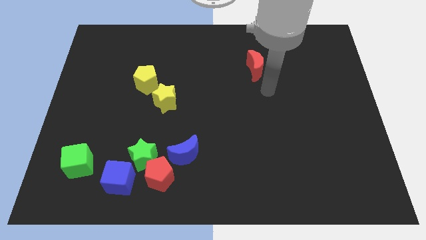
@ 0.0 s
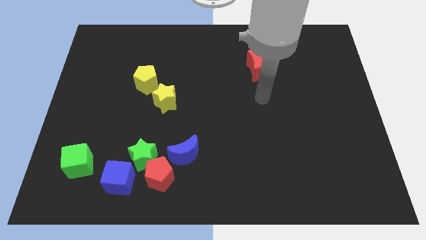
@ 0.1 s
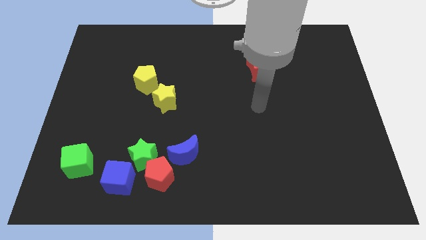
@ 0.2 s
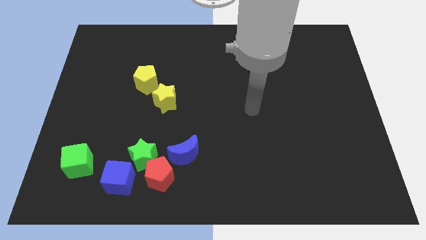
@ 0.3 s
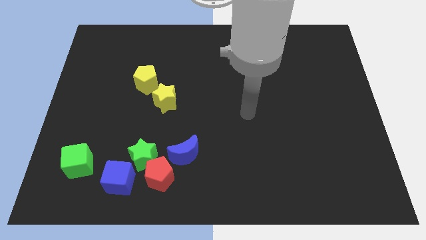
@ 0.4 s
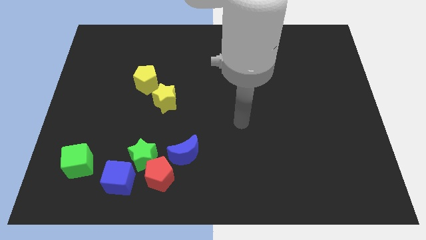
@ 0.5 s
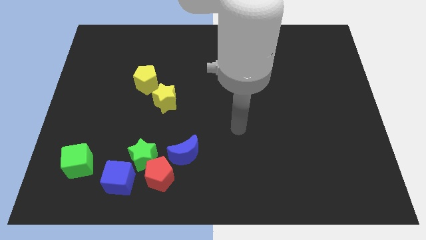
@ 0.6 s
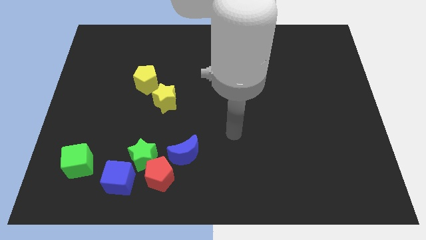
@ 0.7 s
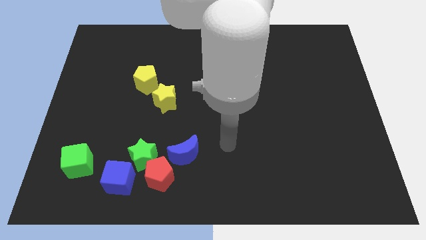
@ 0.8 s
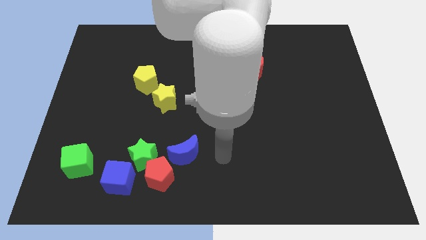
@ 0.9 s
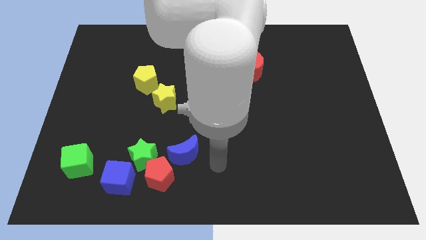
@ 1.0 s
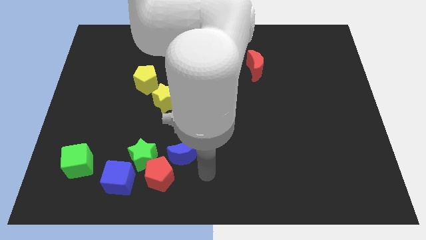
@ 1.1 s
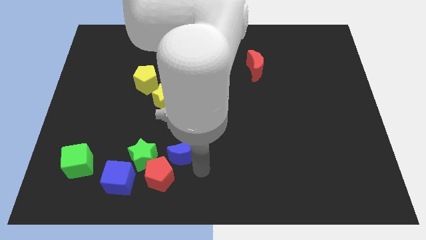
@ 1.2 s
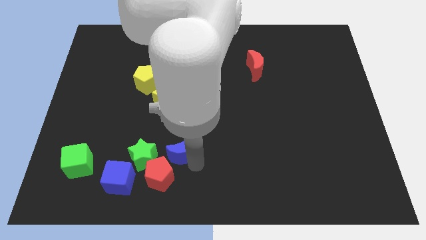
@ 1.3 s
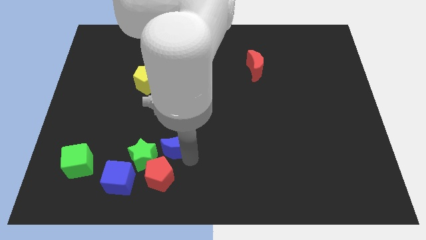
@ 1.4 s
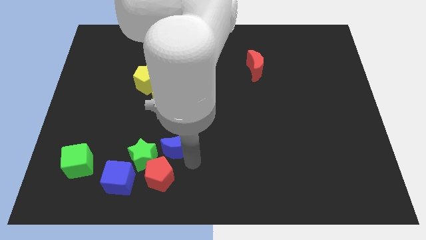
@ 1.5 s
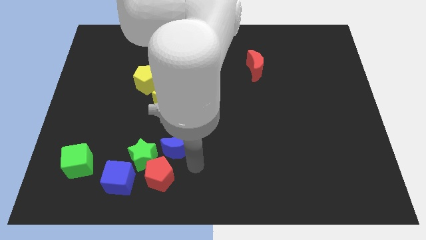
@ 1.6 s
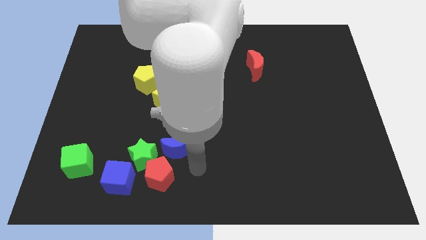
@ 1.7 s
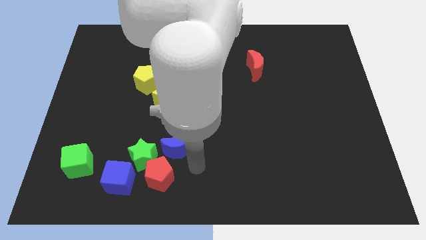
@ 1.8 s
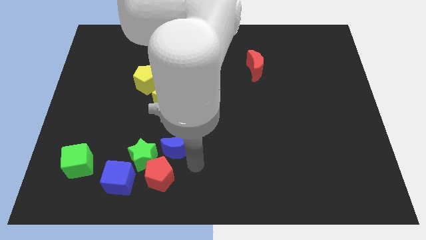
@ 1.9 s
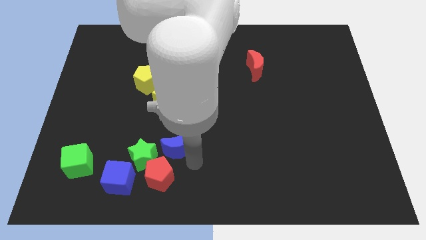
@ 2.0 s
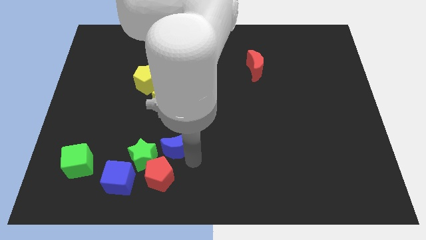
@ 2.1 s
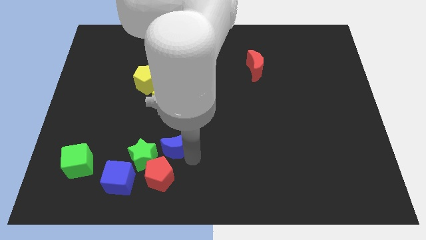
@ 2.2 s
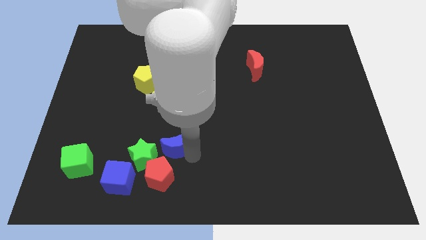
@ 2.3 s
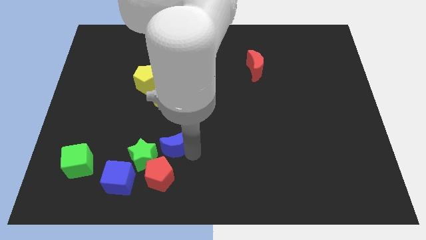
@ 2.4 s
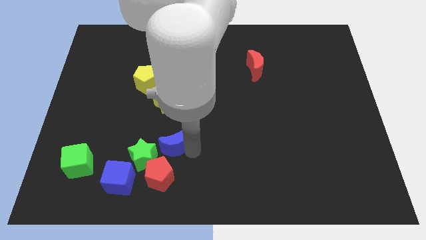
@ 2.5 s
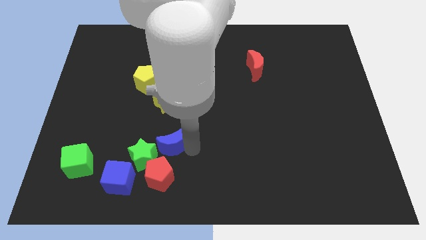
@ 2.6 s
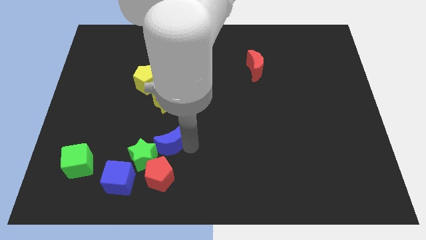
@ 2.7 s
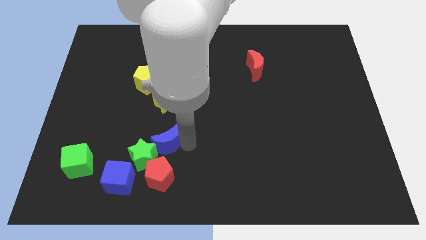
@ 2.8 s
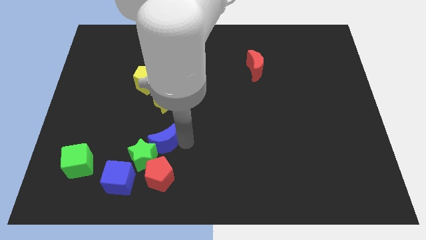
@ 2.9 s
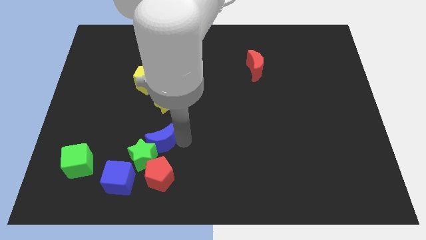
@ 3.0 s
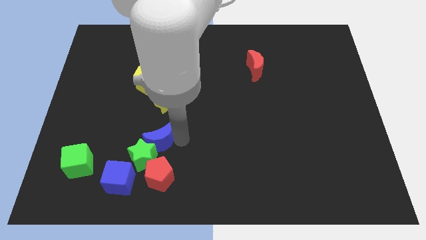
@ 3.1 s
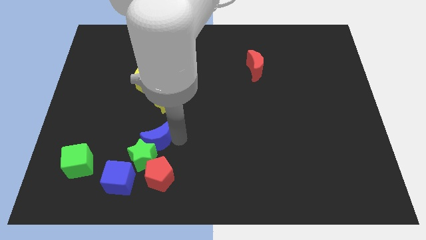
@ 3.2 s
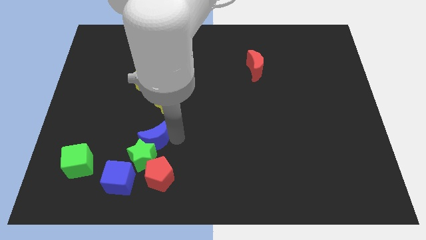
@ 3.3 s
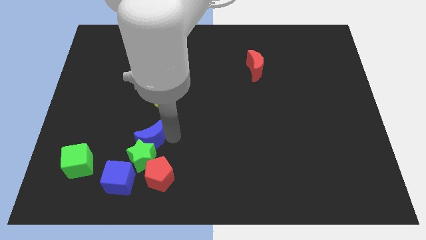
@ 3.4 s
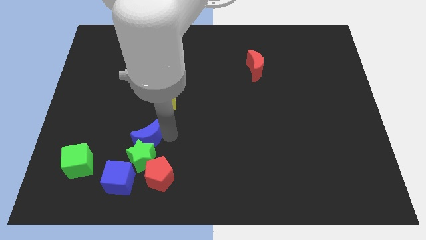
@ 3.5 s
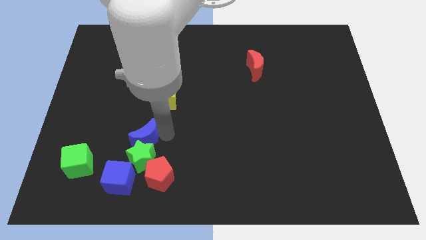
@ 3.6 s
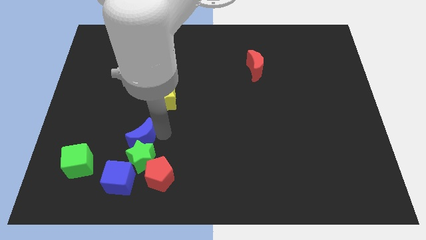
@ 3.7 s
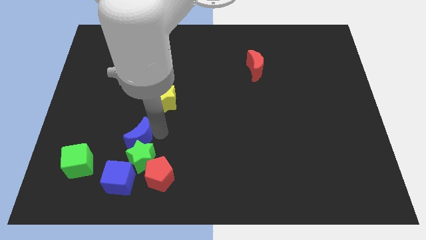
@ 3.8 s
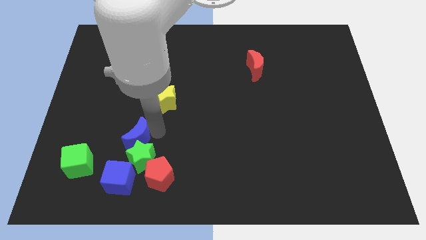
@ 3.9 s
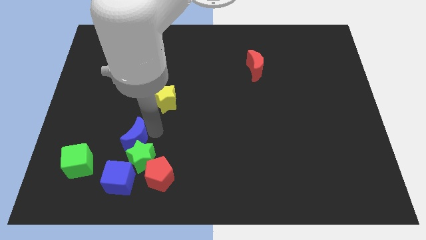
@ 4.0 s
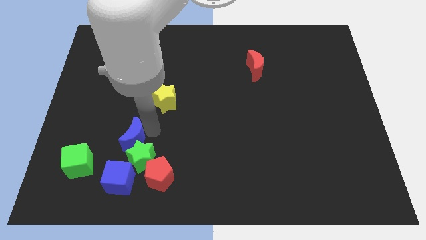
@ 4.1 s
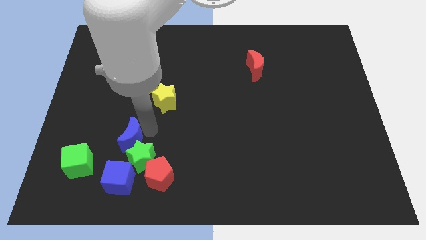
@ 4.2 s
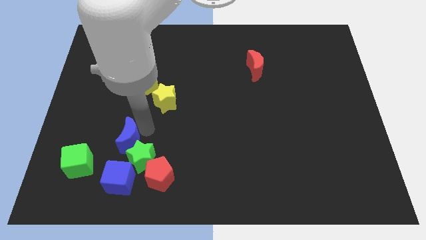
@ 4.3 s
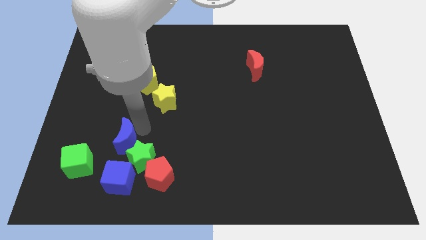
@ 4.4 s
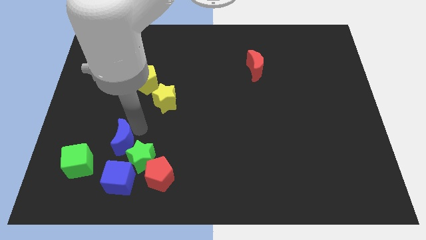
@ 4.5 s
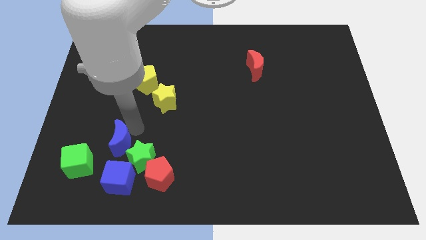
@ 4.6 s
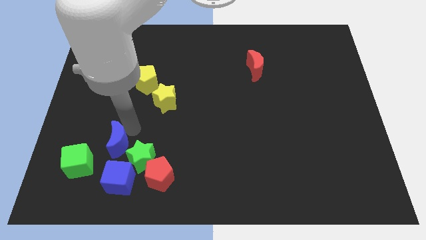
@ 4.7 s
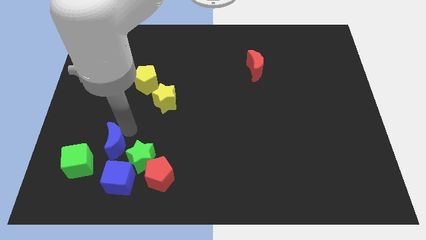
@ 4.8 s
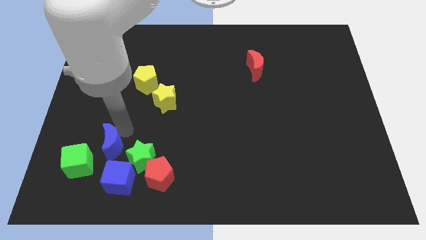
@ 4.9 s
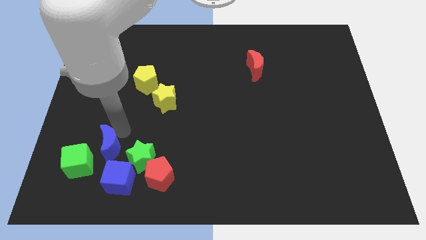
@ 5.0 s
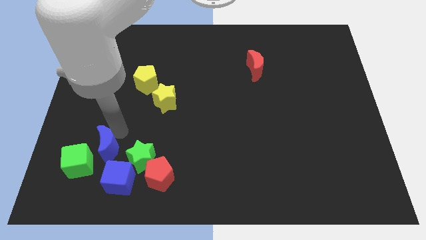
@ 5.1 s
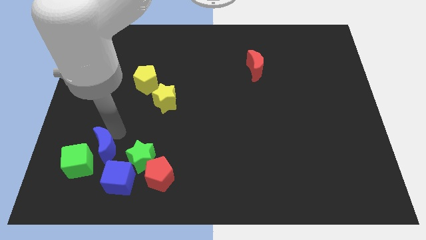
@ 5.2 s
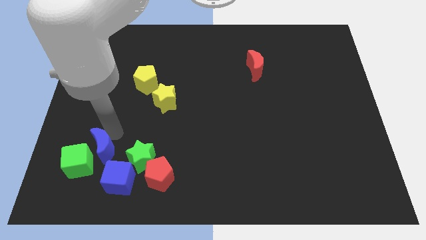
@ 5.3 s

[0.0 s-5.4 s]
slide the blue moon to the green cube

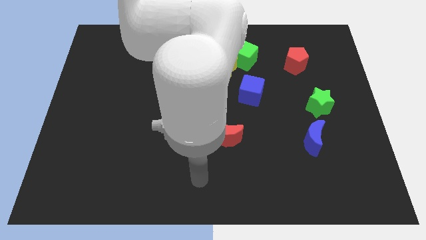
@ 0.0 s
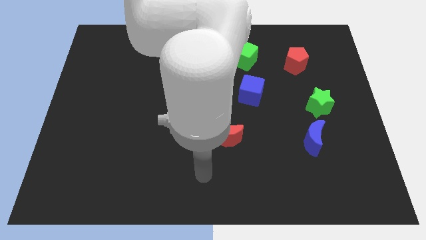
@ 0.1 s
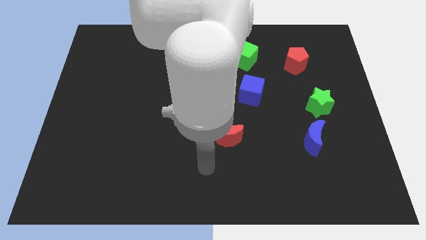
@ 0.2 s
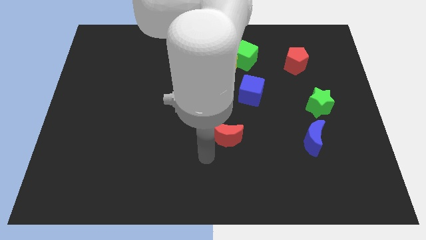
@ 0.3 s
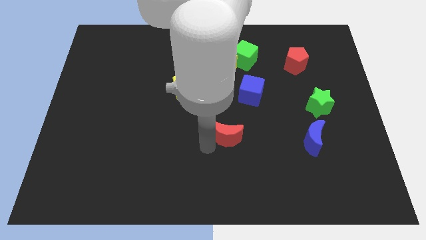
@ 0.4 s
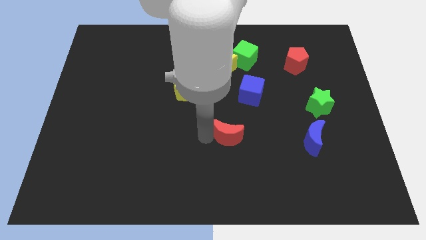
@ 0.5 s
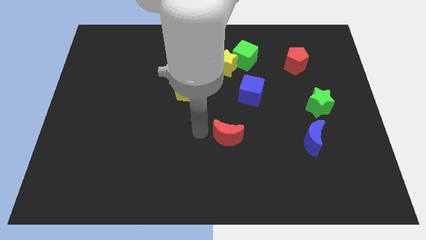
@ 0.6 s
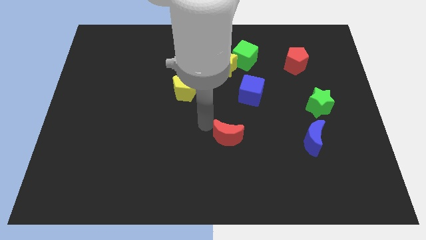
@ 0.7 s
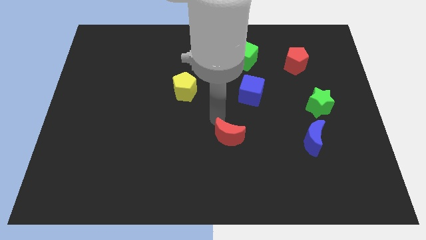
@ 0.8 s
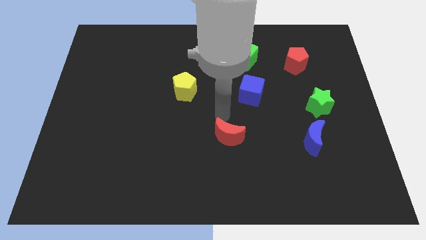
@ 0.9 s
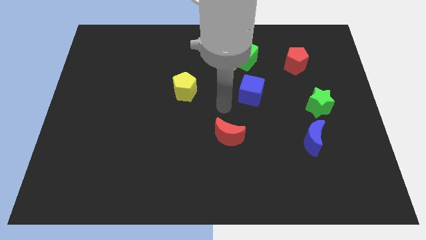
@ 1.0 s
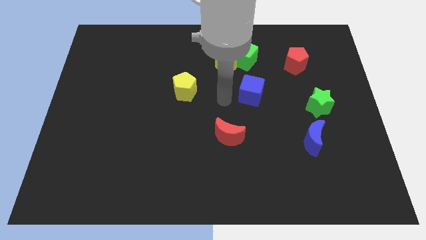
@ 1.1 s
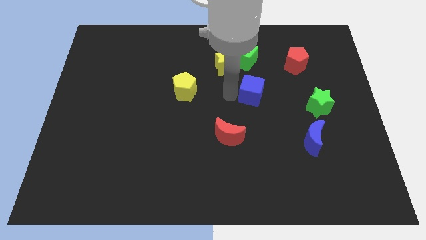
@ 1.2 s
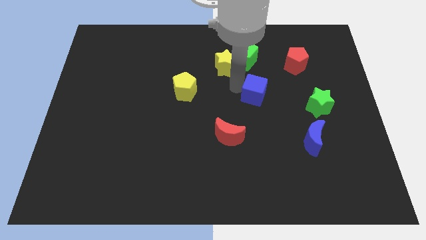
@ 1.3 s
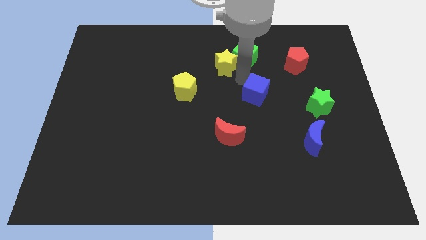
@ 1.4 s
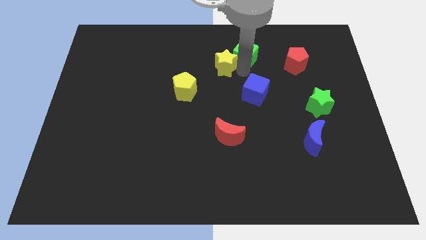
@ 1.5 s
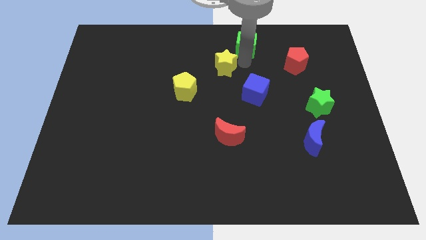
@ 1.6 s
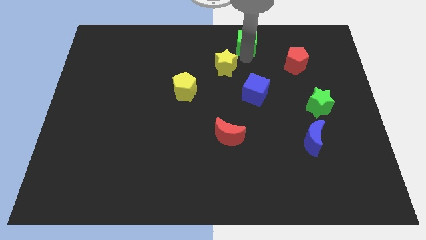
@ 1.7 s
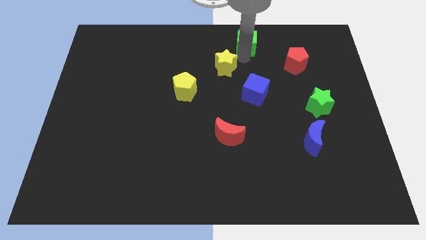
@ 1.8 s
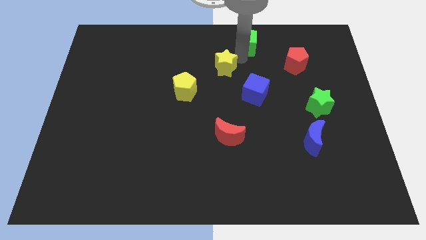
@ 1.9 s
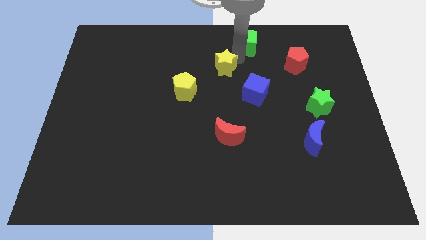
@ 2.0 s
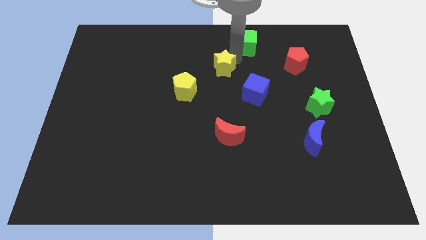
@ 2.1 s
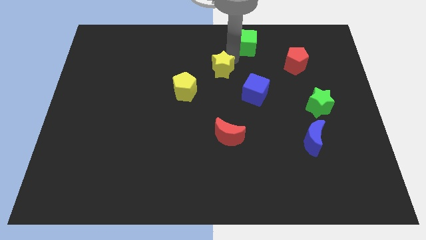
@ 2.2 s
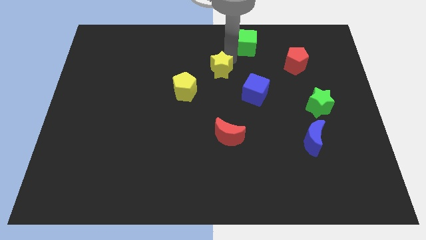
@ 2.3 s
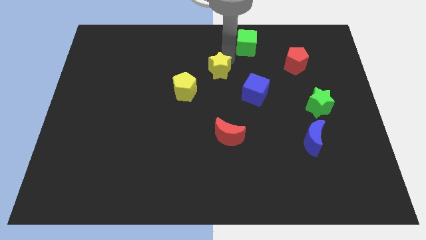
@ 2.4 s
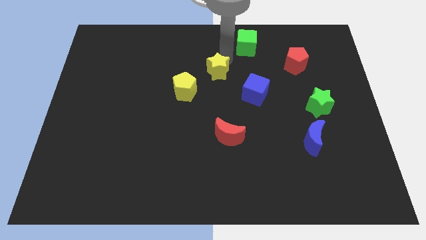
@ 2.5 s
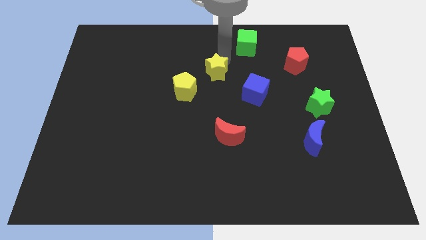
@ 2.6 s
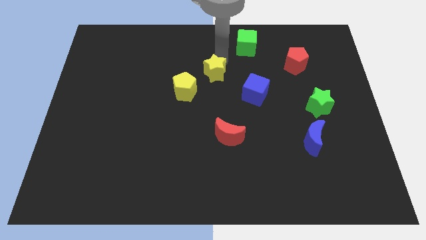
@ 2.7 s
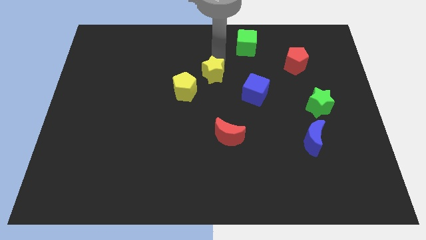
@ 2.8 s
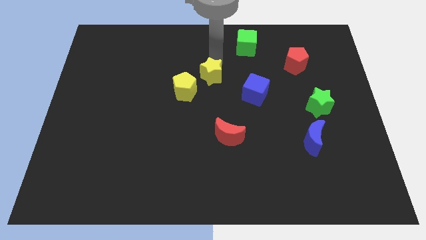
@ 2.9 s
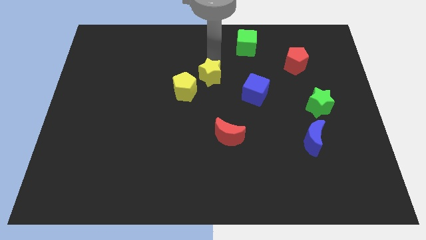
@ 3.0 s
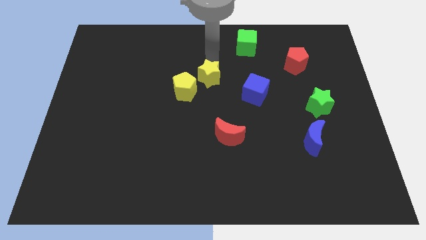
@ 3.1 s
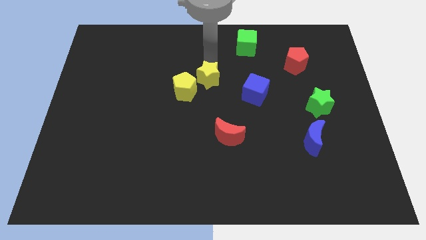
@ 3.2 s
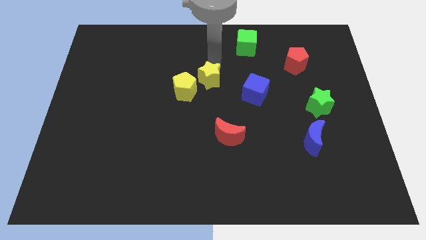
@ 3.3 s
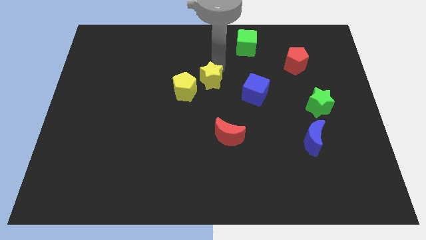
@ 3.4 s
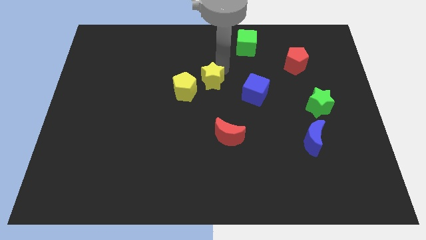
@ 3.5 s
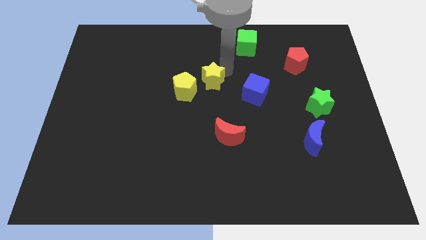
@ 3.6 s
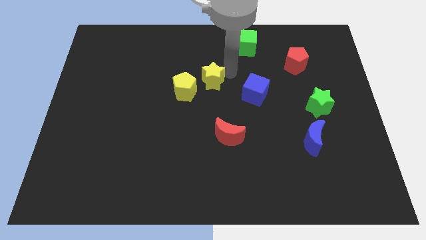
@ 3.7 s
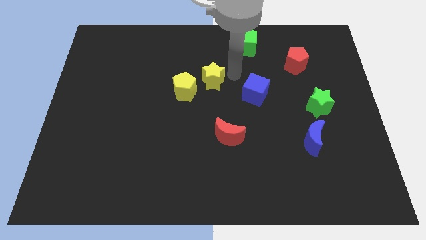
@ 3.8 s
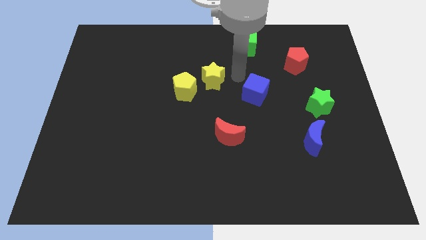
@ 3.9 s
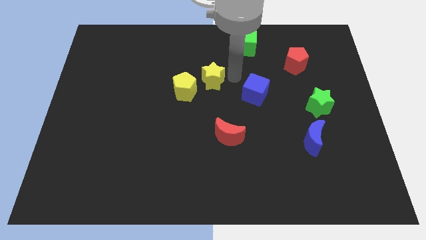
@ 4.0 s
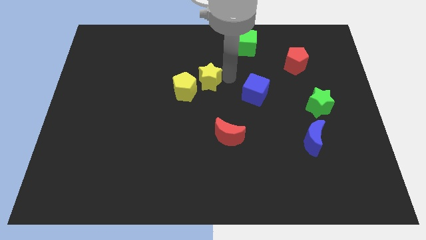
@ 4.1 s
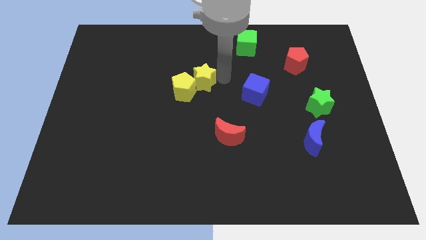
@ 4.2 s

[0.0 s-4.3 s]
push the yellow star next to the yellow pentagon
